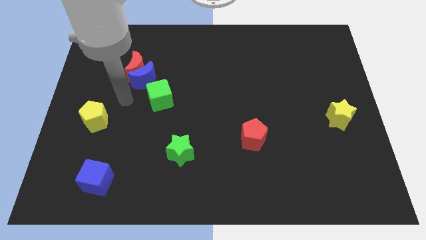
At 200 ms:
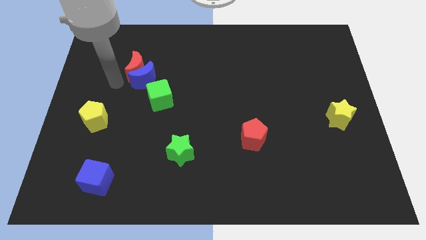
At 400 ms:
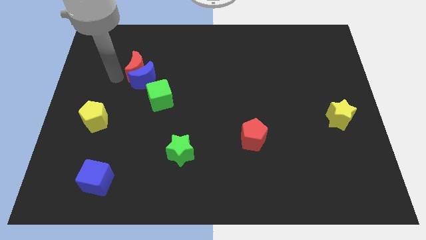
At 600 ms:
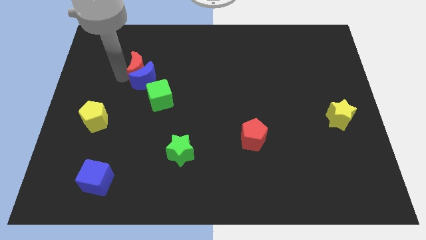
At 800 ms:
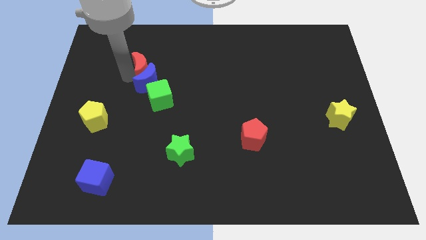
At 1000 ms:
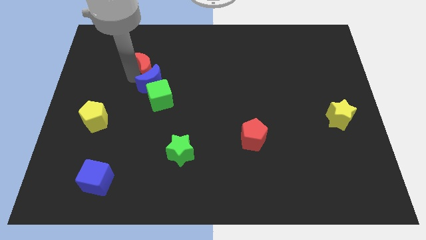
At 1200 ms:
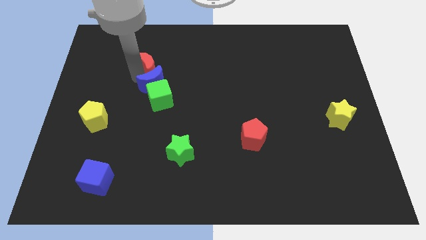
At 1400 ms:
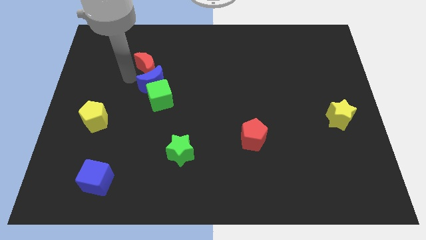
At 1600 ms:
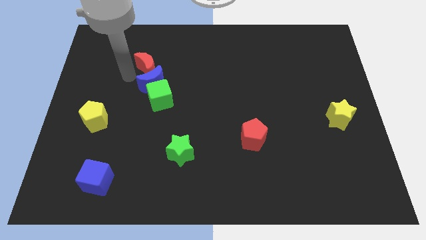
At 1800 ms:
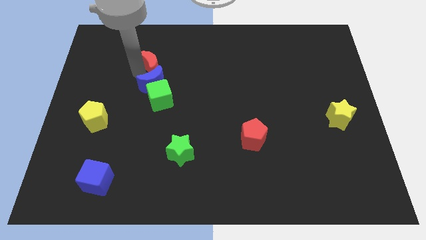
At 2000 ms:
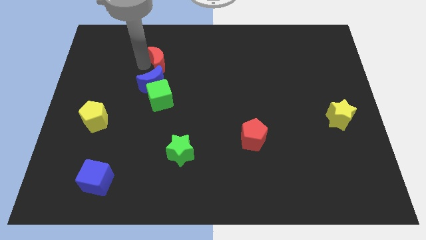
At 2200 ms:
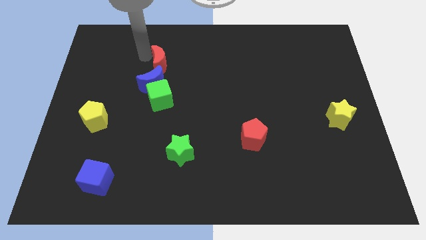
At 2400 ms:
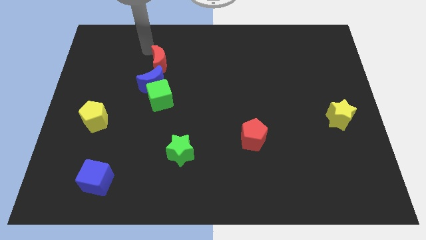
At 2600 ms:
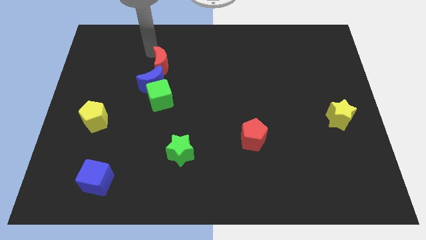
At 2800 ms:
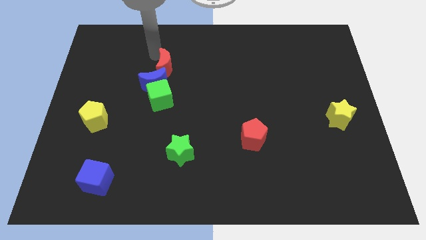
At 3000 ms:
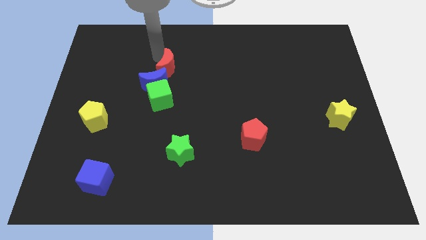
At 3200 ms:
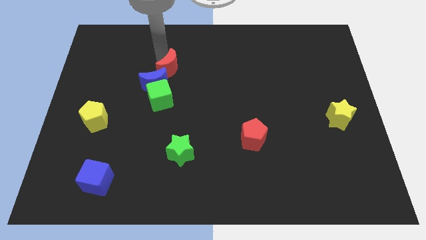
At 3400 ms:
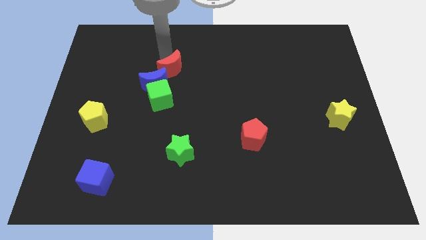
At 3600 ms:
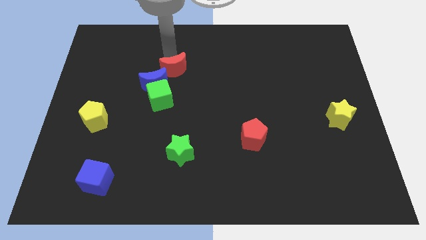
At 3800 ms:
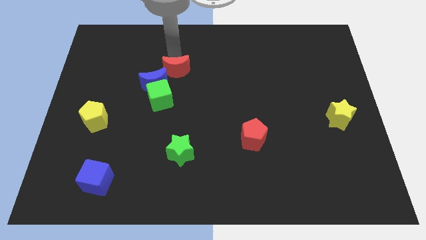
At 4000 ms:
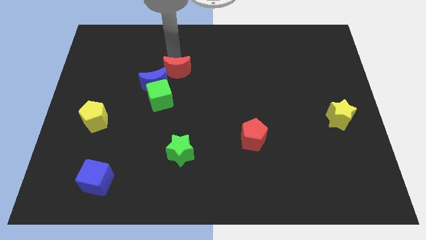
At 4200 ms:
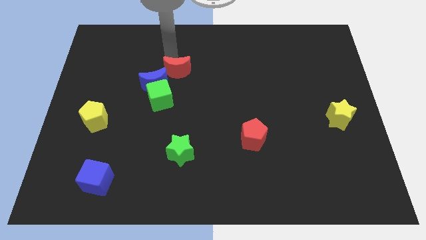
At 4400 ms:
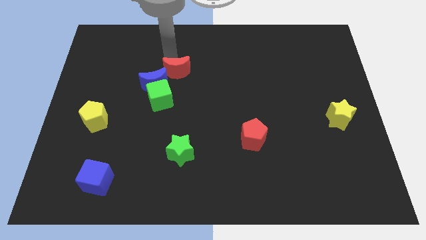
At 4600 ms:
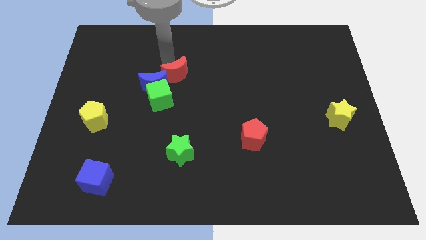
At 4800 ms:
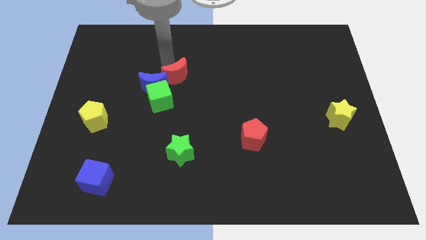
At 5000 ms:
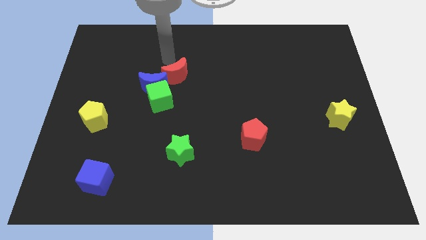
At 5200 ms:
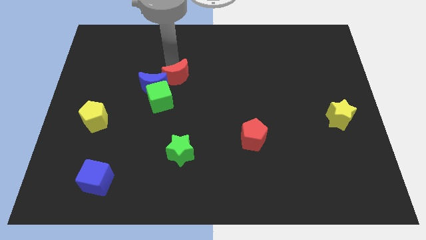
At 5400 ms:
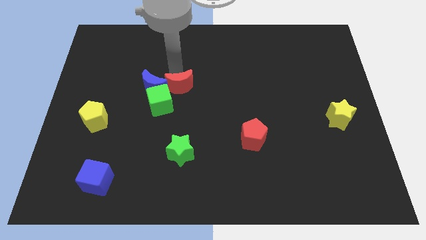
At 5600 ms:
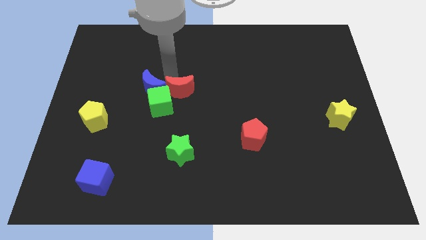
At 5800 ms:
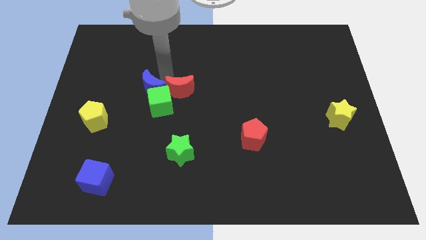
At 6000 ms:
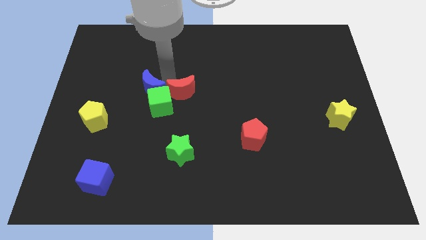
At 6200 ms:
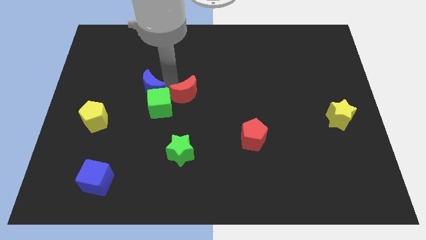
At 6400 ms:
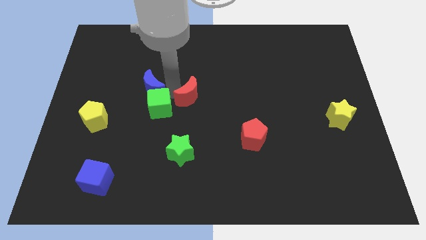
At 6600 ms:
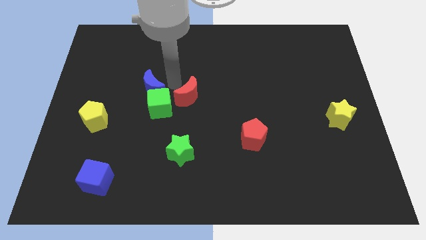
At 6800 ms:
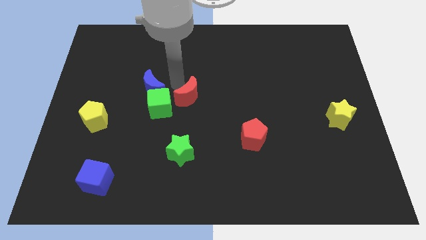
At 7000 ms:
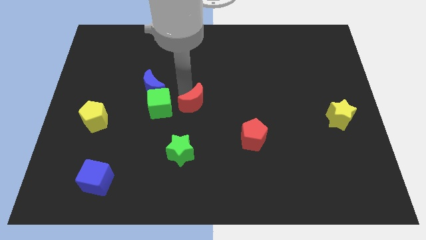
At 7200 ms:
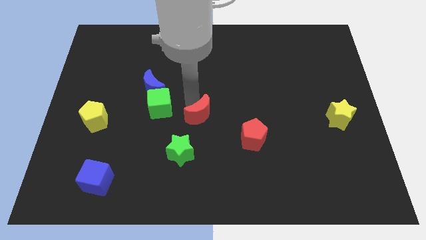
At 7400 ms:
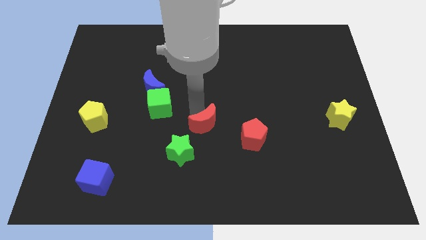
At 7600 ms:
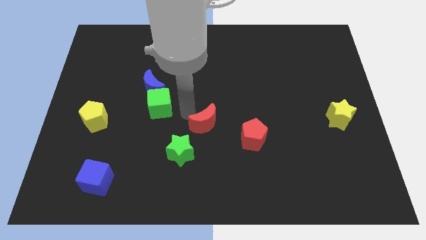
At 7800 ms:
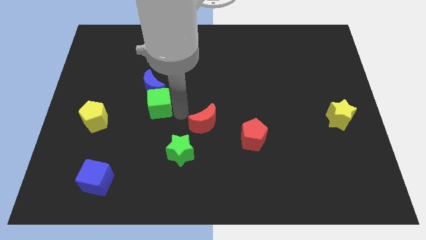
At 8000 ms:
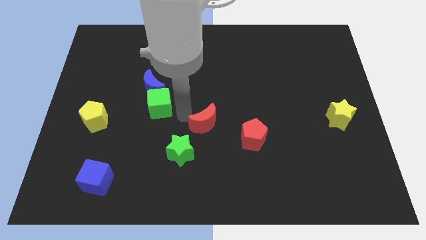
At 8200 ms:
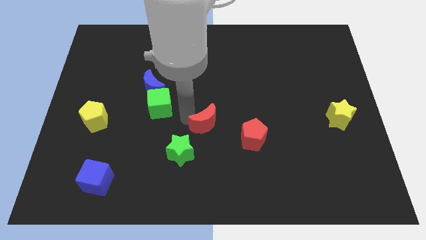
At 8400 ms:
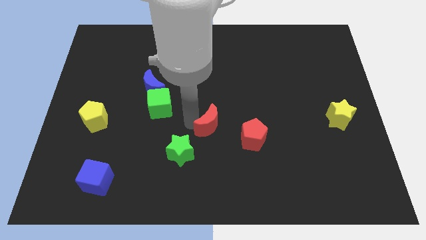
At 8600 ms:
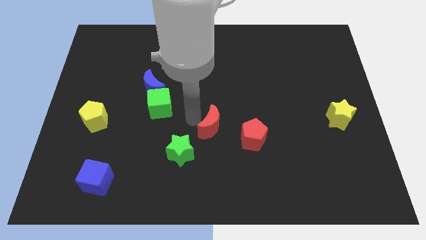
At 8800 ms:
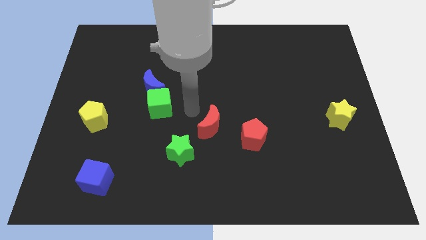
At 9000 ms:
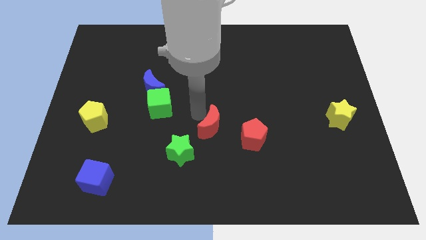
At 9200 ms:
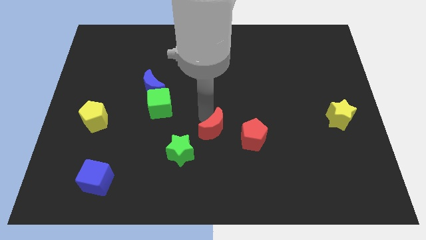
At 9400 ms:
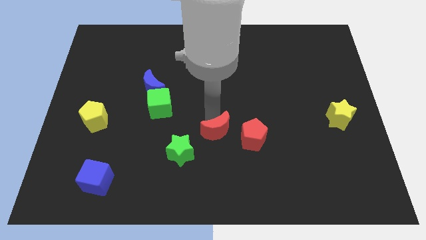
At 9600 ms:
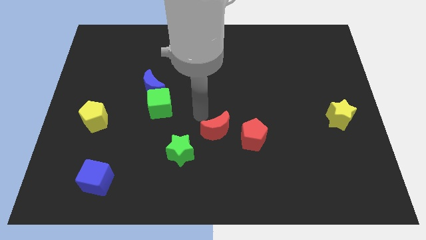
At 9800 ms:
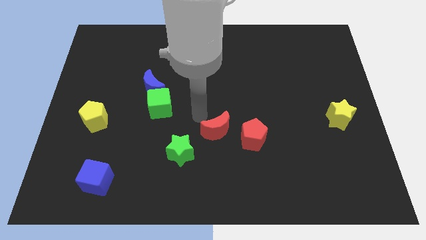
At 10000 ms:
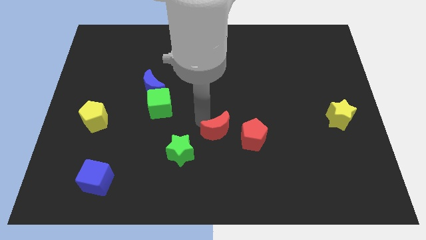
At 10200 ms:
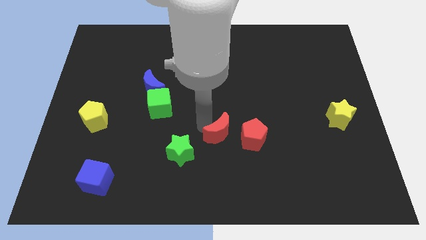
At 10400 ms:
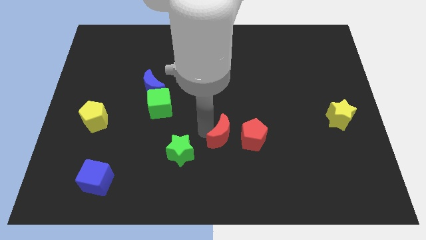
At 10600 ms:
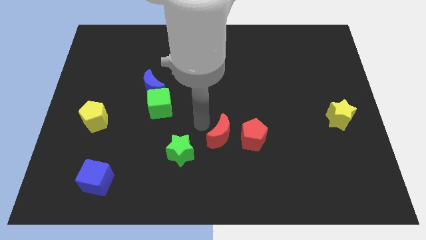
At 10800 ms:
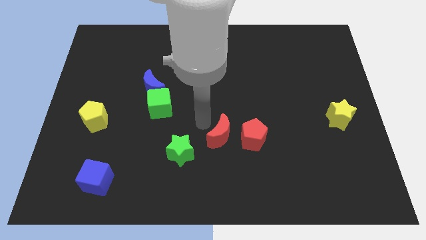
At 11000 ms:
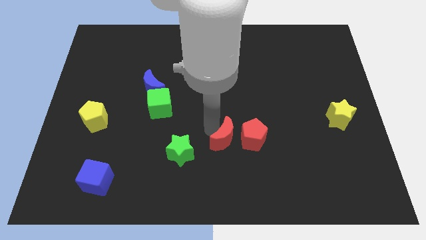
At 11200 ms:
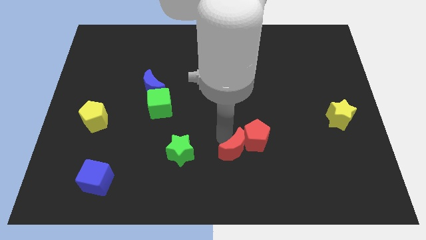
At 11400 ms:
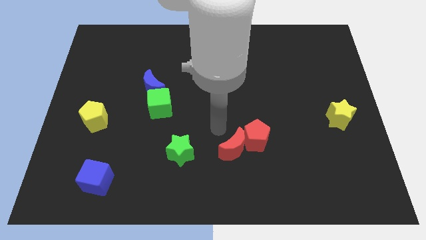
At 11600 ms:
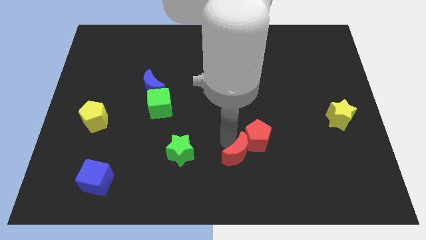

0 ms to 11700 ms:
put the red moon to the bottom side of the red pentagon
